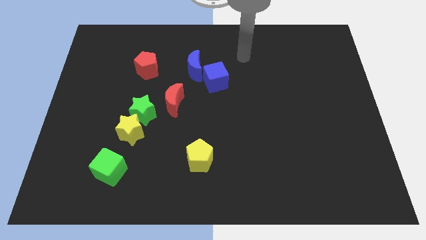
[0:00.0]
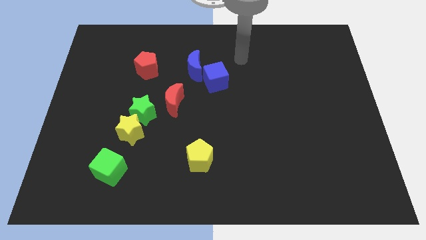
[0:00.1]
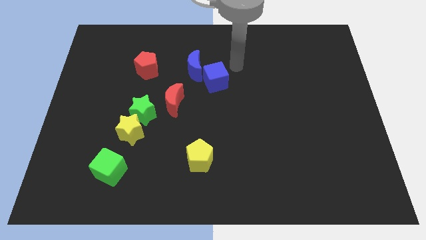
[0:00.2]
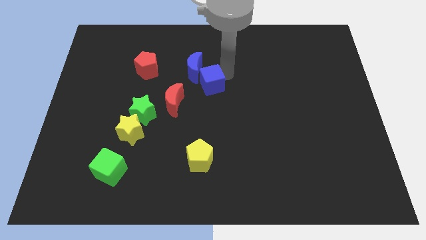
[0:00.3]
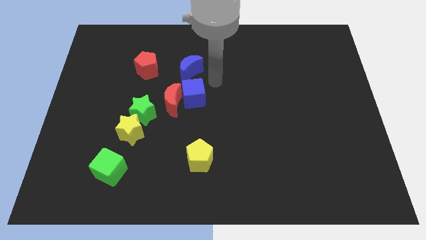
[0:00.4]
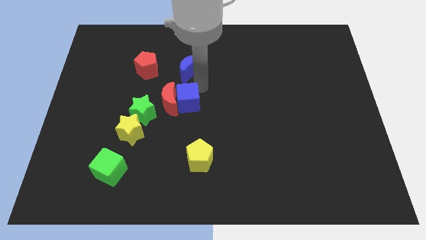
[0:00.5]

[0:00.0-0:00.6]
pull the blue moon apart from the blue cube

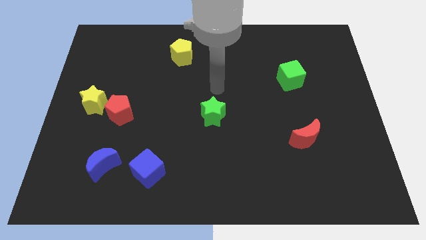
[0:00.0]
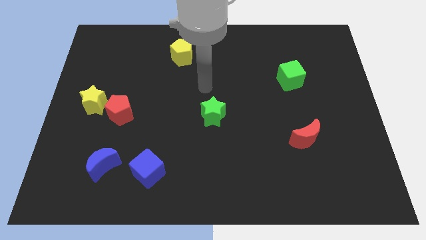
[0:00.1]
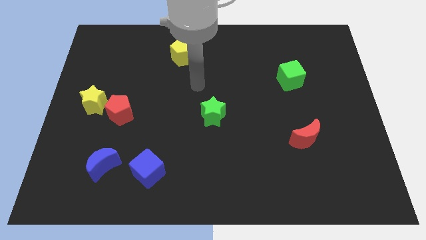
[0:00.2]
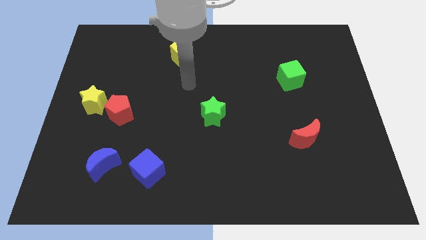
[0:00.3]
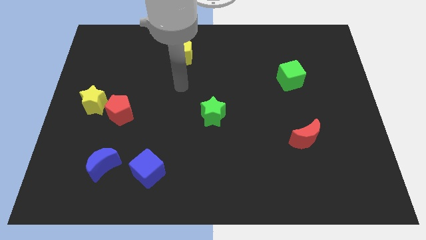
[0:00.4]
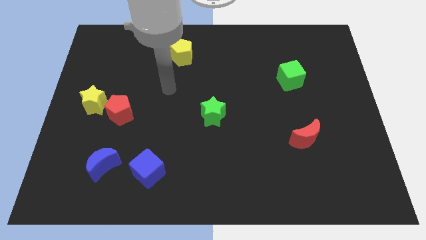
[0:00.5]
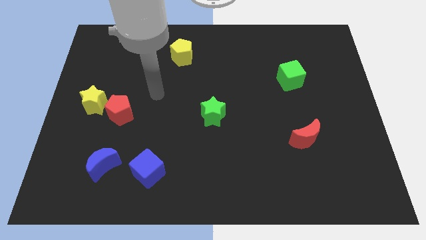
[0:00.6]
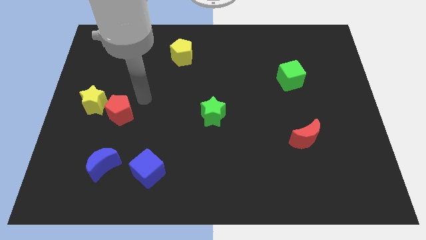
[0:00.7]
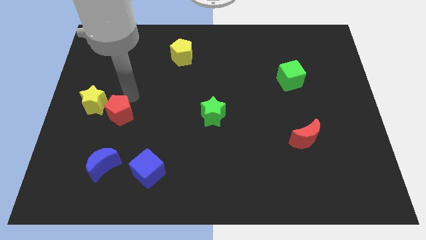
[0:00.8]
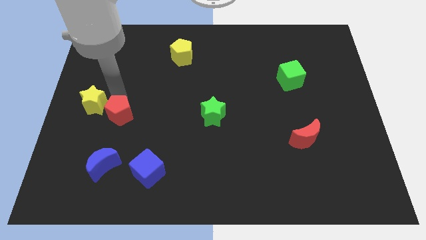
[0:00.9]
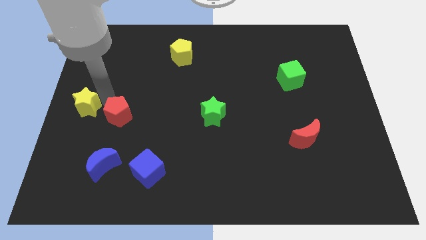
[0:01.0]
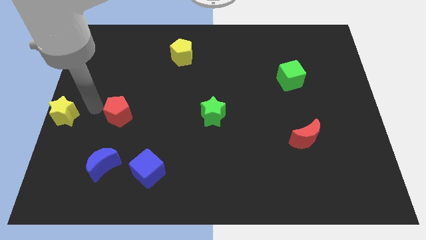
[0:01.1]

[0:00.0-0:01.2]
pull the red pentagon apart from the yellow star

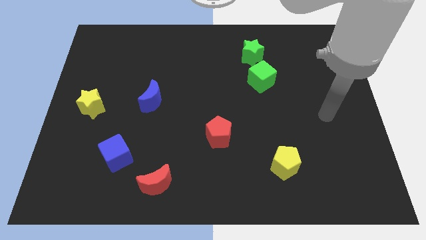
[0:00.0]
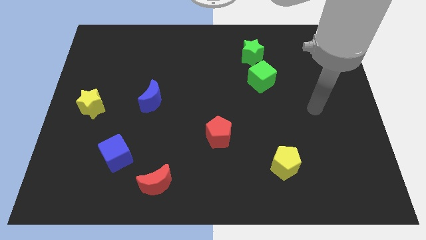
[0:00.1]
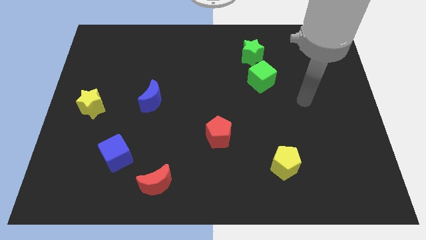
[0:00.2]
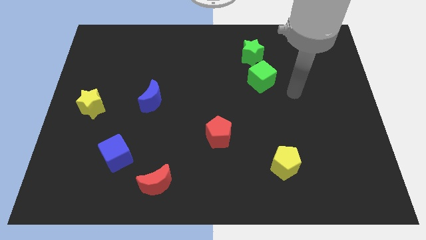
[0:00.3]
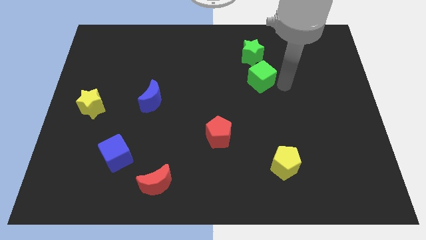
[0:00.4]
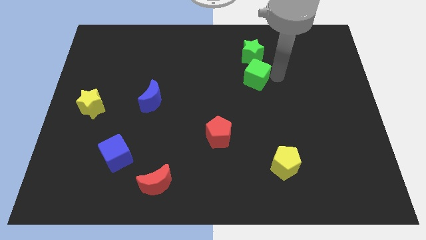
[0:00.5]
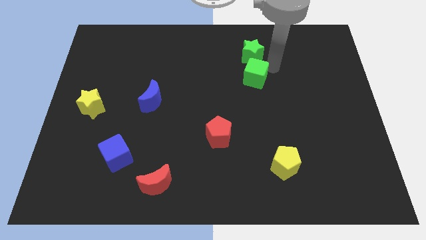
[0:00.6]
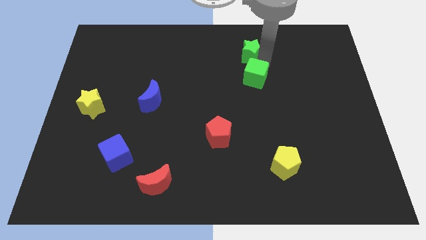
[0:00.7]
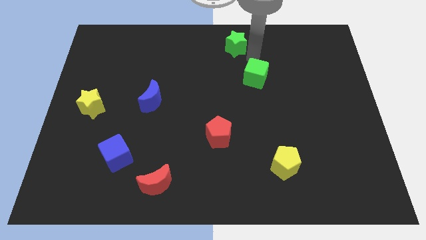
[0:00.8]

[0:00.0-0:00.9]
separate the green cube from the green star

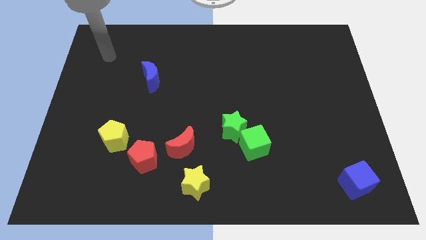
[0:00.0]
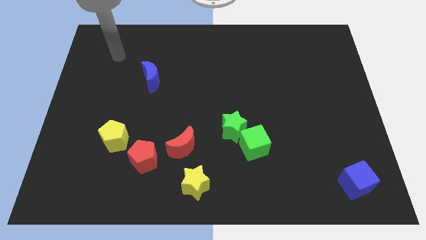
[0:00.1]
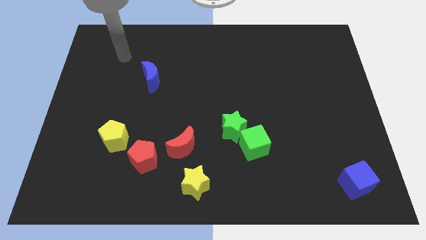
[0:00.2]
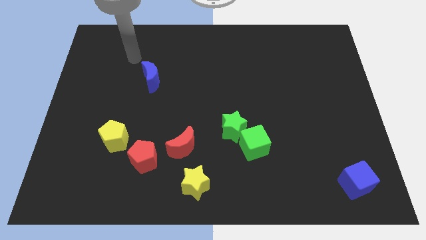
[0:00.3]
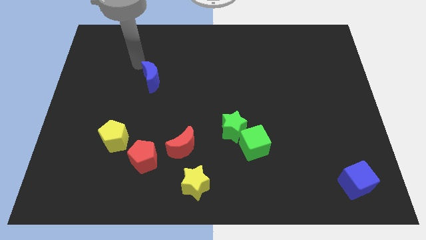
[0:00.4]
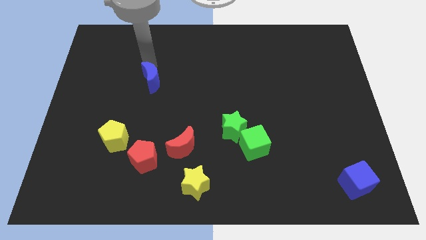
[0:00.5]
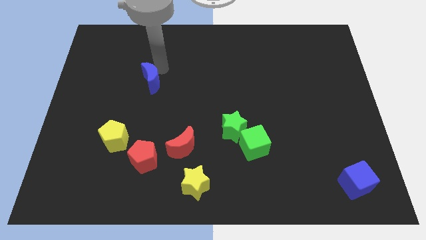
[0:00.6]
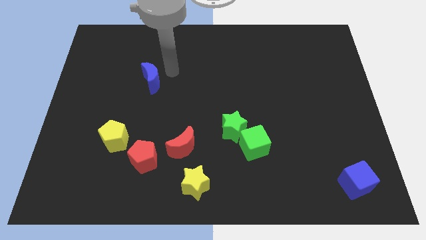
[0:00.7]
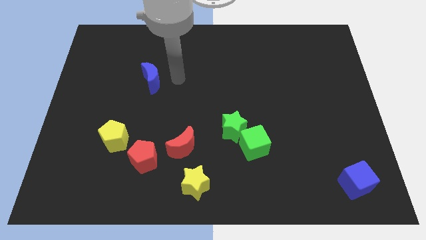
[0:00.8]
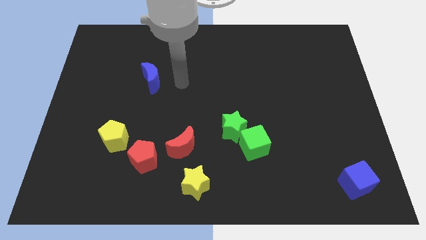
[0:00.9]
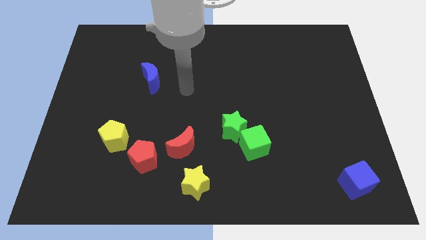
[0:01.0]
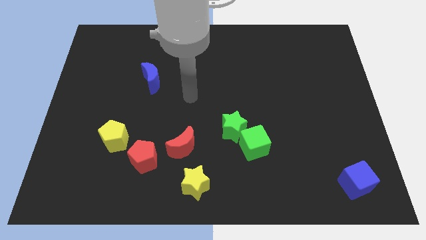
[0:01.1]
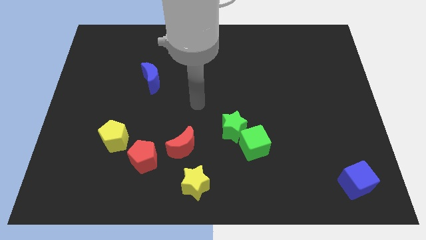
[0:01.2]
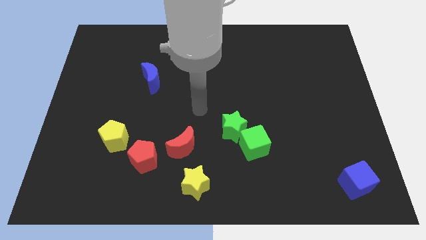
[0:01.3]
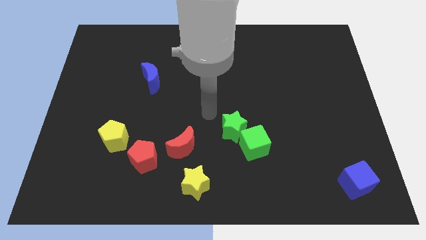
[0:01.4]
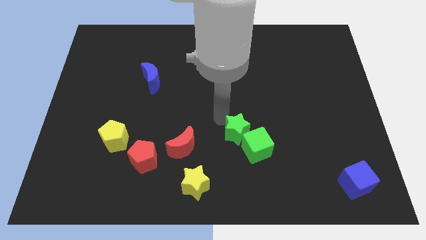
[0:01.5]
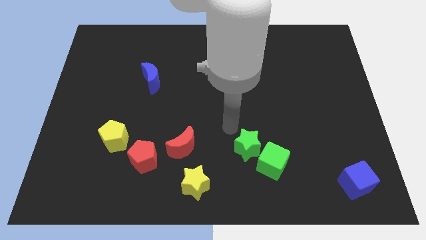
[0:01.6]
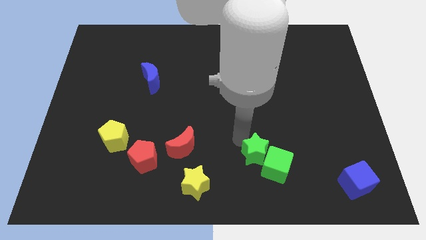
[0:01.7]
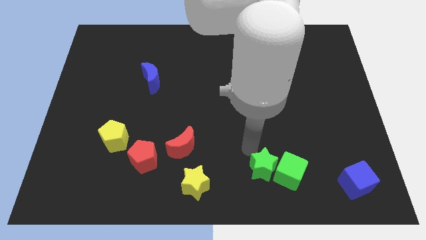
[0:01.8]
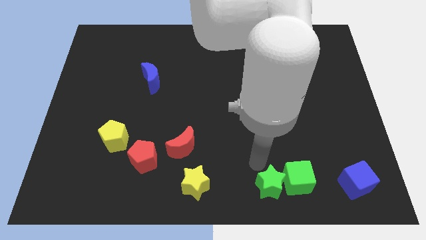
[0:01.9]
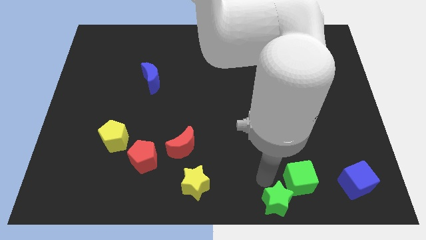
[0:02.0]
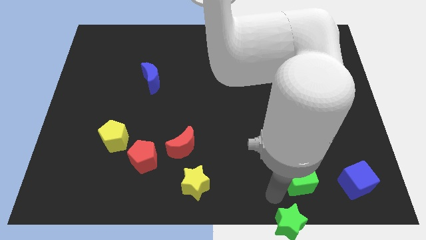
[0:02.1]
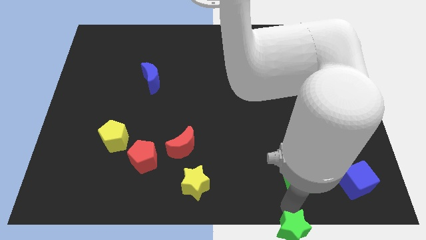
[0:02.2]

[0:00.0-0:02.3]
move the green cube away from the green star

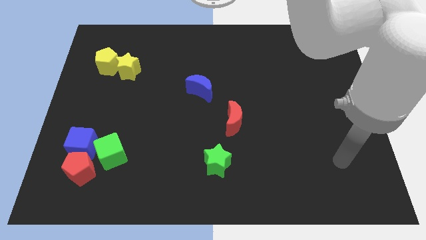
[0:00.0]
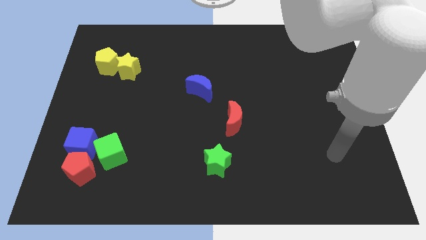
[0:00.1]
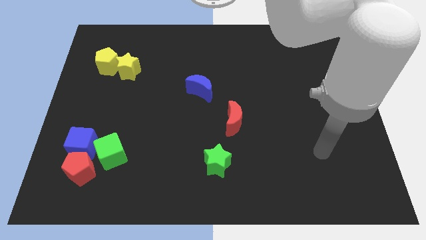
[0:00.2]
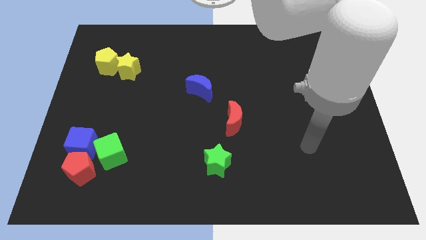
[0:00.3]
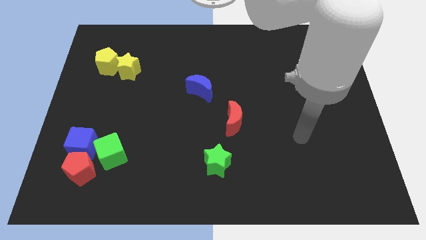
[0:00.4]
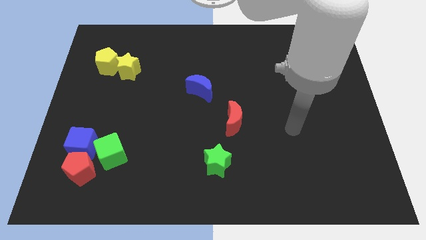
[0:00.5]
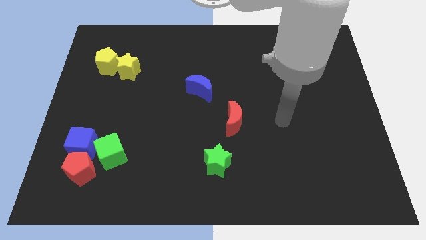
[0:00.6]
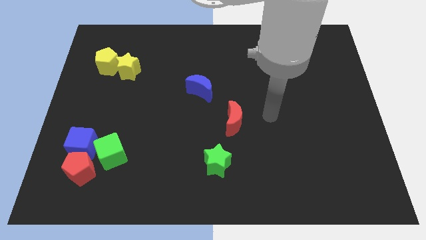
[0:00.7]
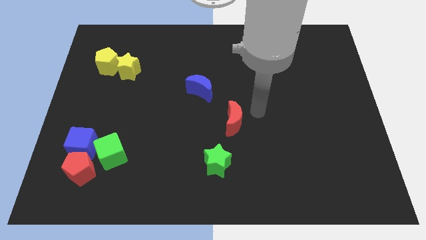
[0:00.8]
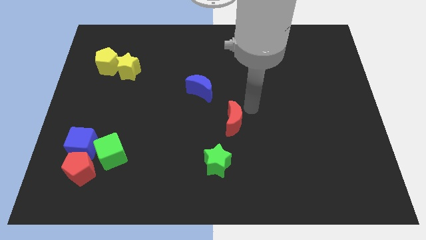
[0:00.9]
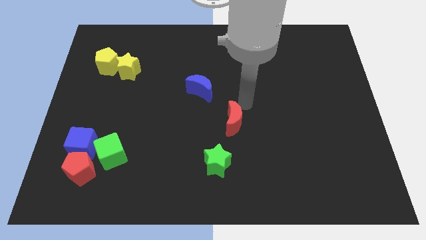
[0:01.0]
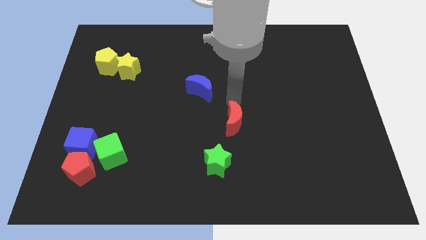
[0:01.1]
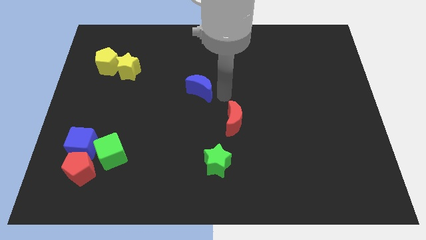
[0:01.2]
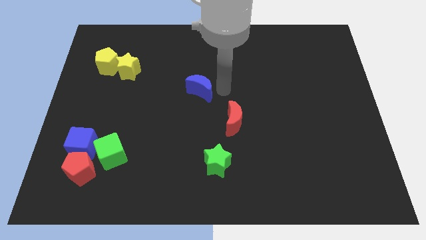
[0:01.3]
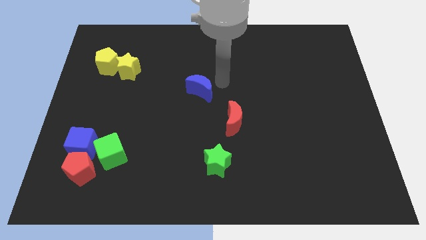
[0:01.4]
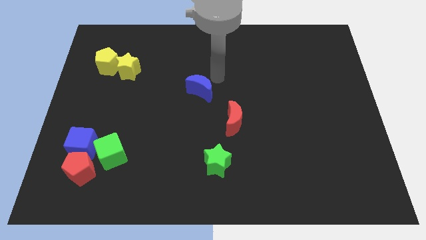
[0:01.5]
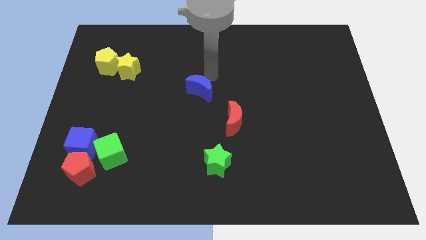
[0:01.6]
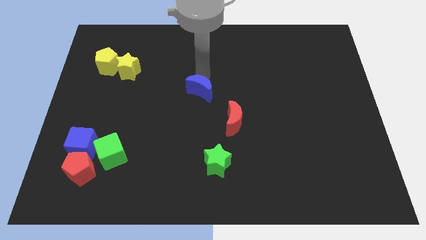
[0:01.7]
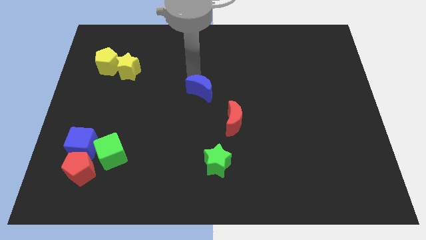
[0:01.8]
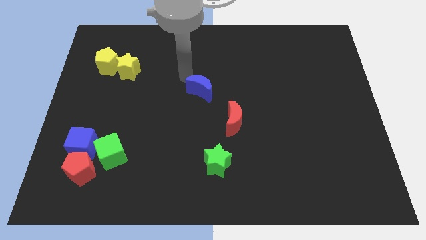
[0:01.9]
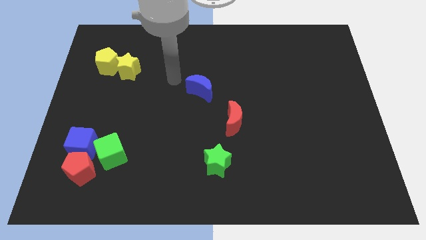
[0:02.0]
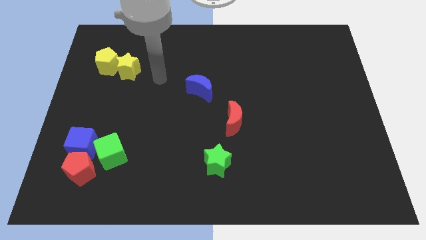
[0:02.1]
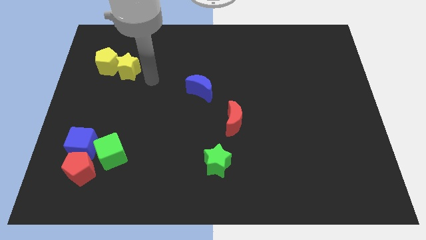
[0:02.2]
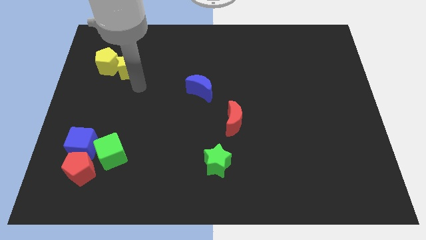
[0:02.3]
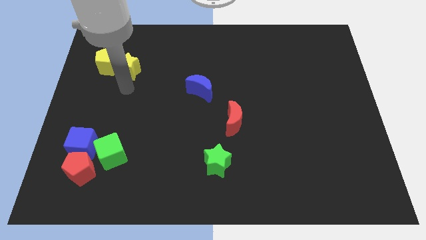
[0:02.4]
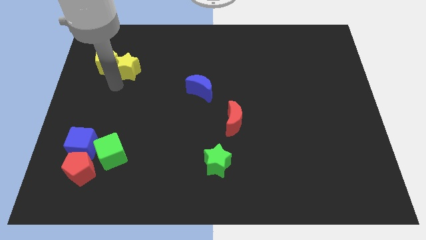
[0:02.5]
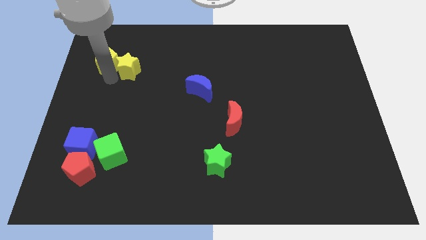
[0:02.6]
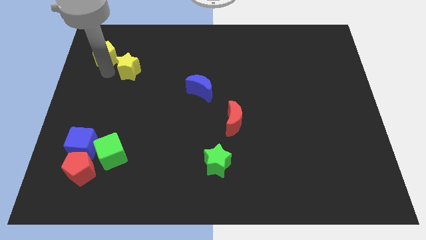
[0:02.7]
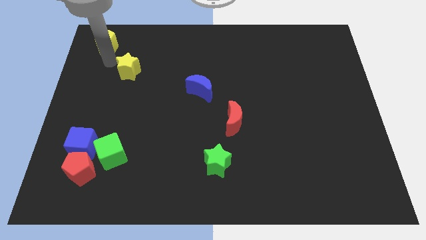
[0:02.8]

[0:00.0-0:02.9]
separate the yellow star from the yellow pentagon

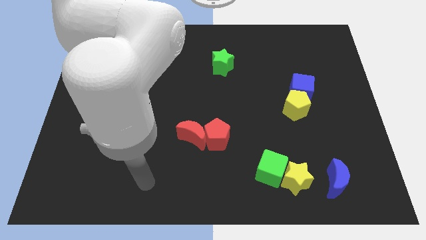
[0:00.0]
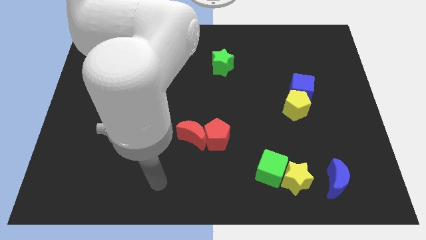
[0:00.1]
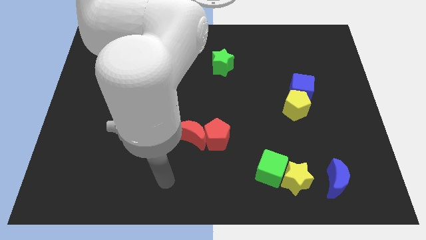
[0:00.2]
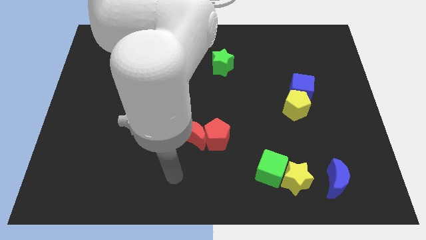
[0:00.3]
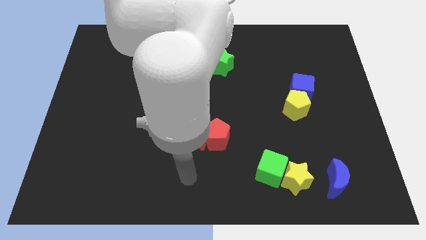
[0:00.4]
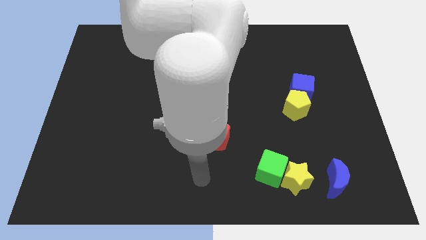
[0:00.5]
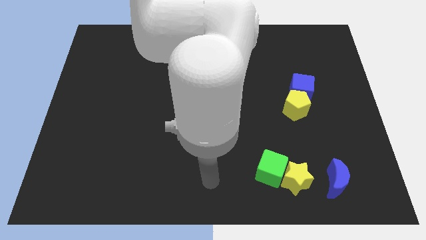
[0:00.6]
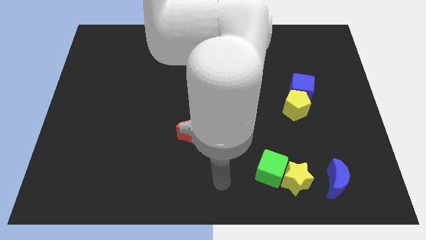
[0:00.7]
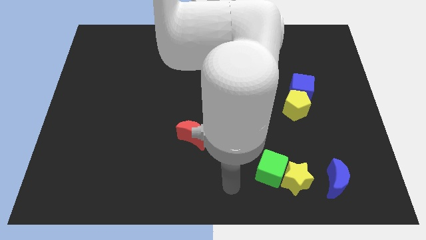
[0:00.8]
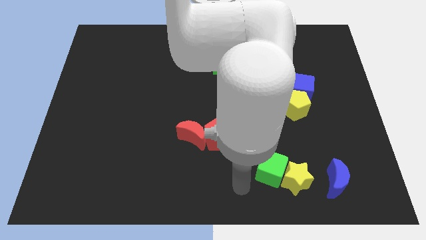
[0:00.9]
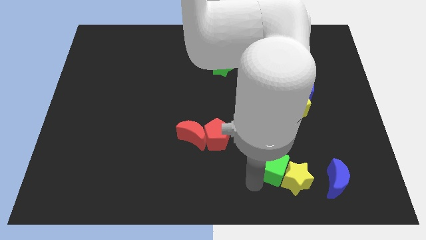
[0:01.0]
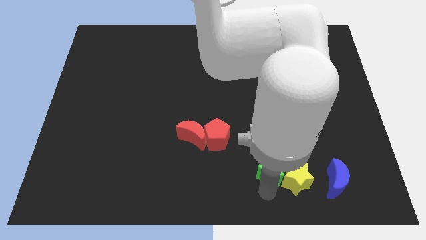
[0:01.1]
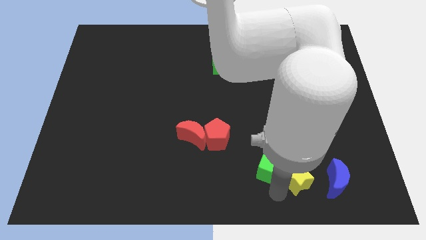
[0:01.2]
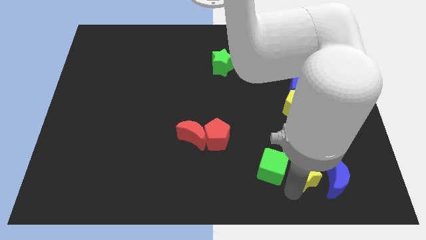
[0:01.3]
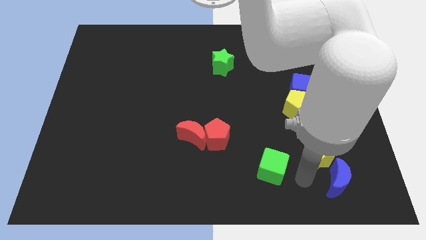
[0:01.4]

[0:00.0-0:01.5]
move the green cube away from the yellow star
